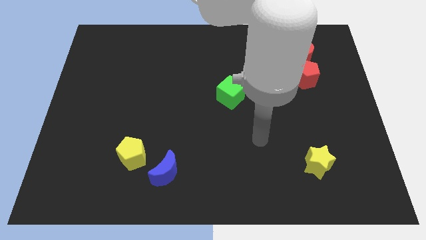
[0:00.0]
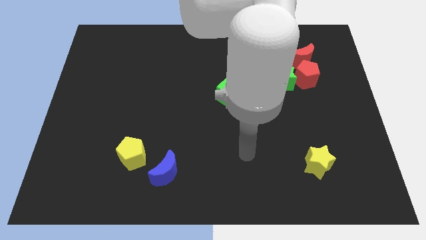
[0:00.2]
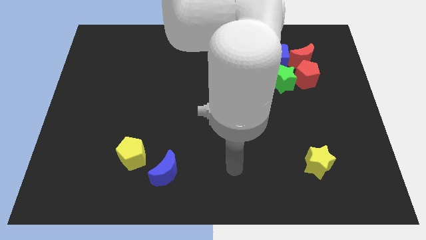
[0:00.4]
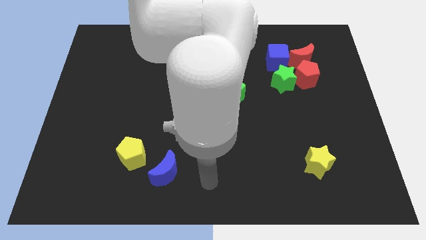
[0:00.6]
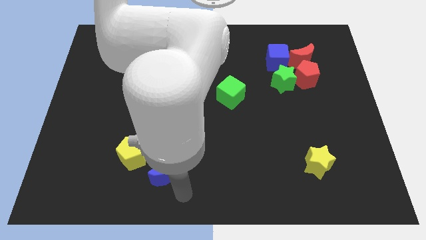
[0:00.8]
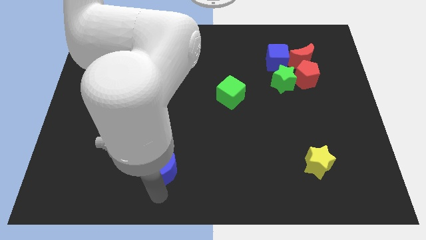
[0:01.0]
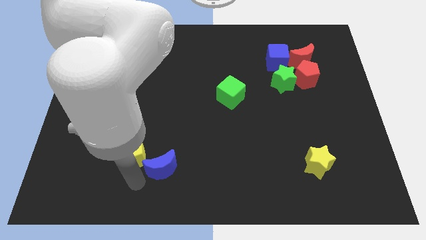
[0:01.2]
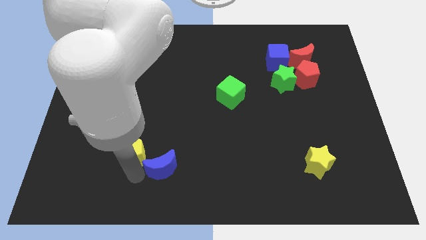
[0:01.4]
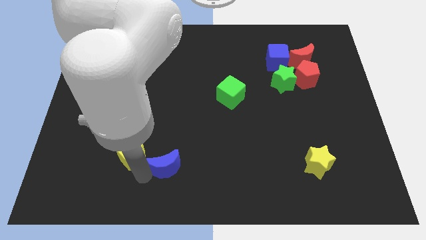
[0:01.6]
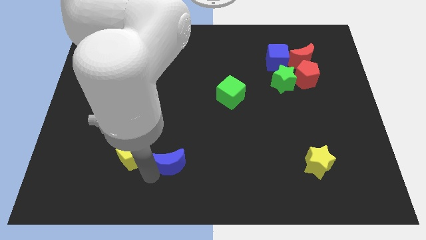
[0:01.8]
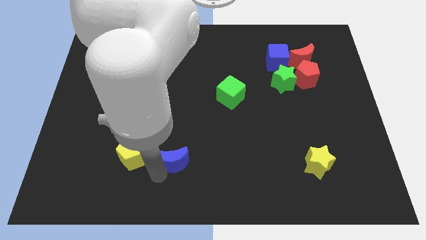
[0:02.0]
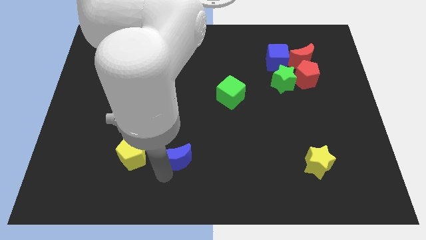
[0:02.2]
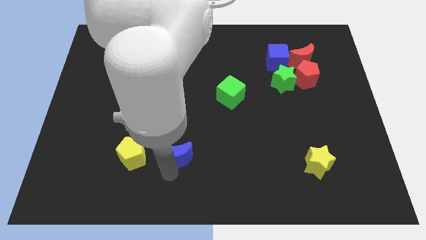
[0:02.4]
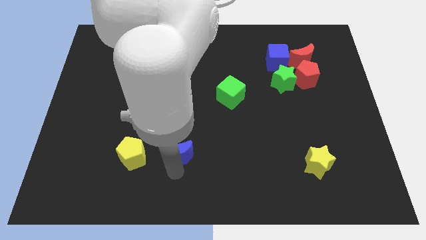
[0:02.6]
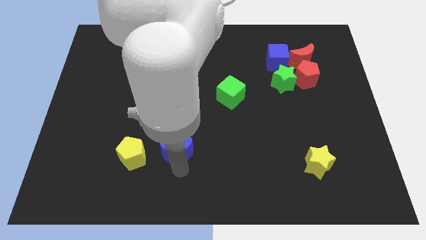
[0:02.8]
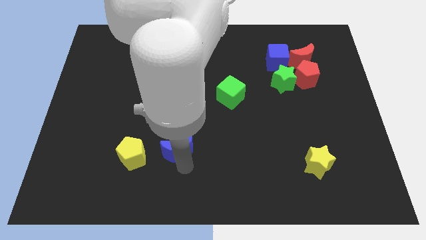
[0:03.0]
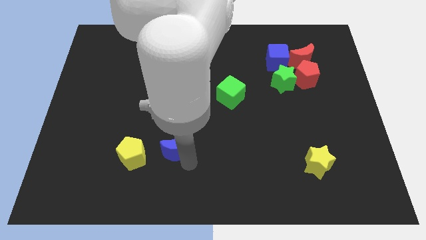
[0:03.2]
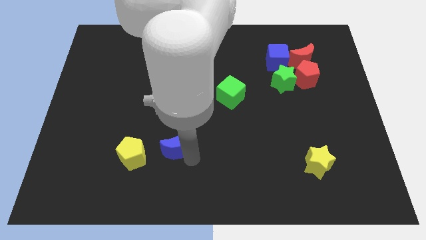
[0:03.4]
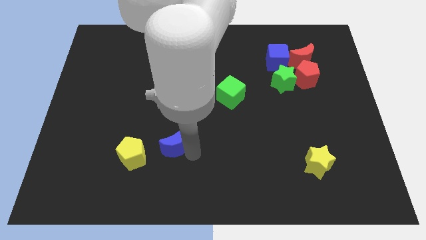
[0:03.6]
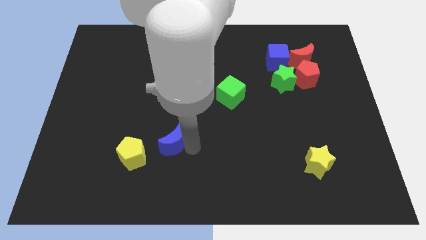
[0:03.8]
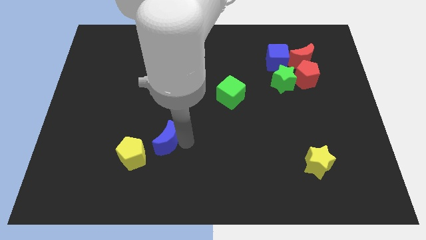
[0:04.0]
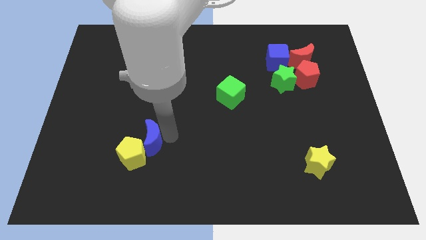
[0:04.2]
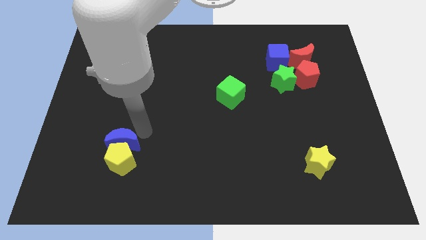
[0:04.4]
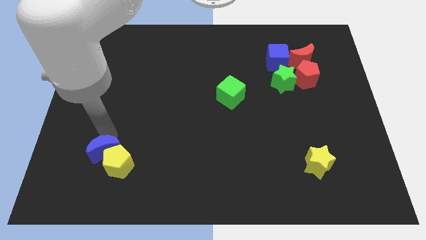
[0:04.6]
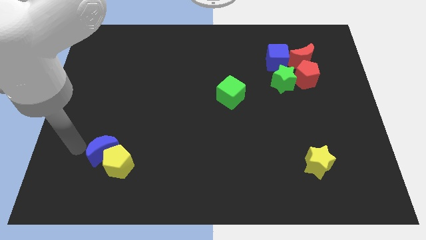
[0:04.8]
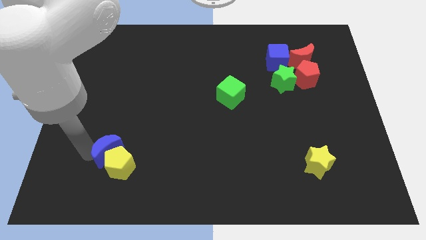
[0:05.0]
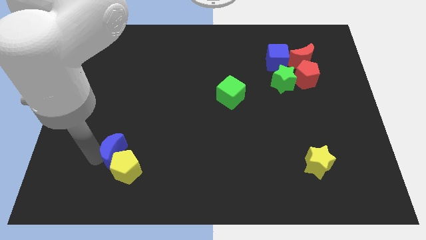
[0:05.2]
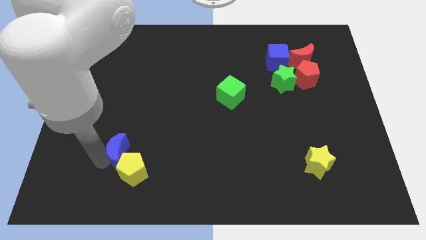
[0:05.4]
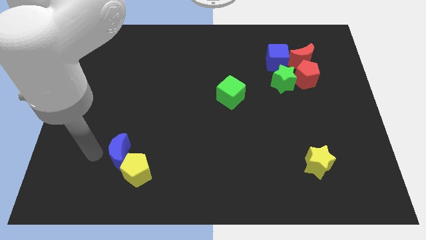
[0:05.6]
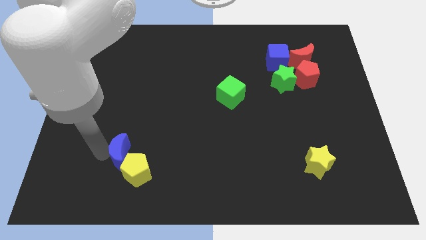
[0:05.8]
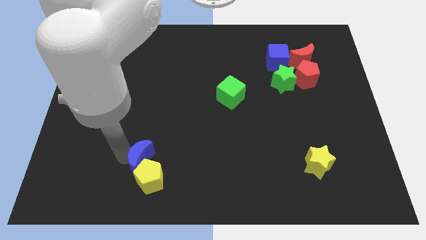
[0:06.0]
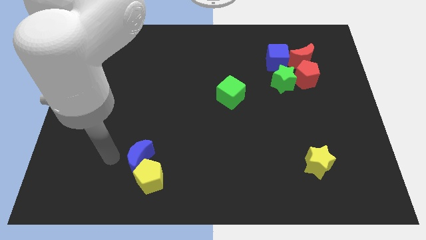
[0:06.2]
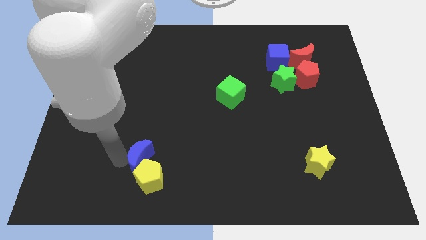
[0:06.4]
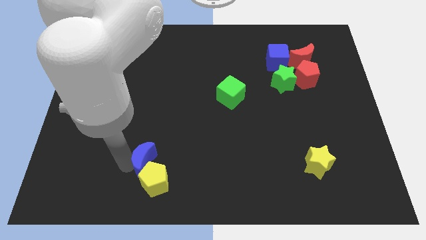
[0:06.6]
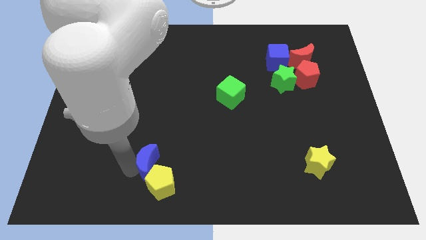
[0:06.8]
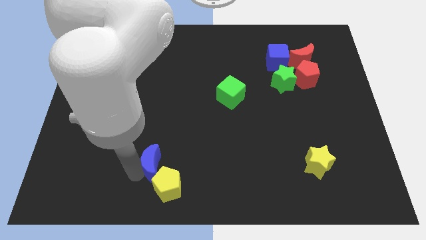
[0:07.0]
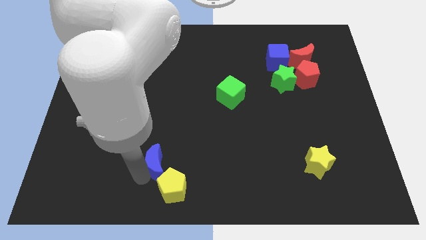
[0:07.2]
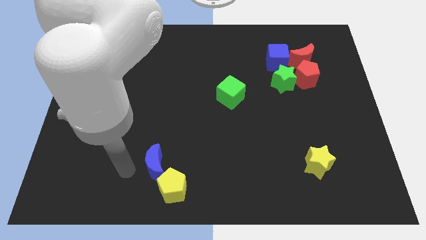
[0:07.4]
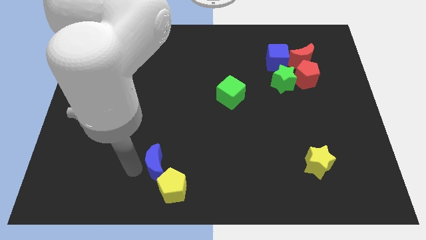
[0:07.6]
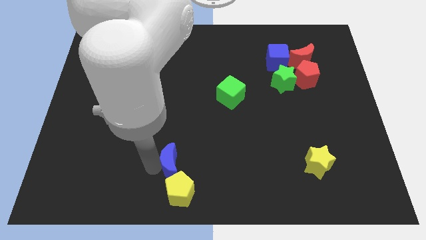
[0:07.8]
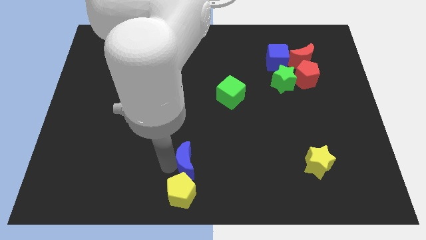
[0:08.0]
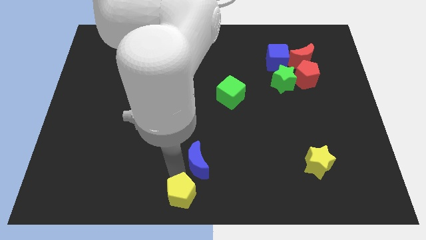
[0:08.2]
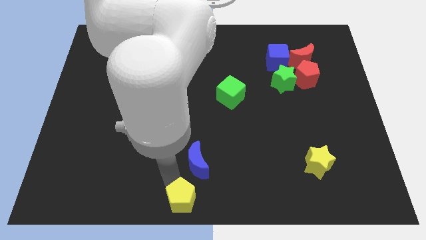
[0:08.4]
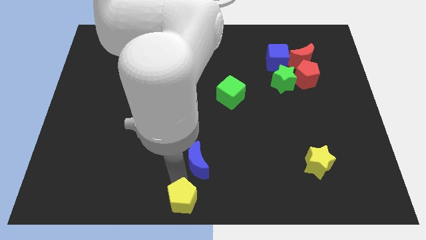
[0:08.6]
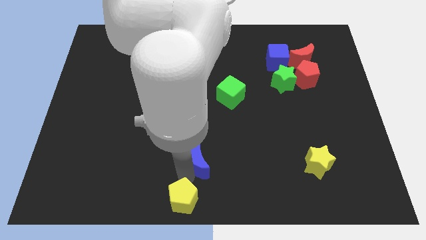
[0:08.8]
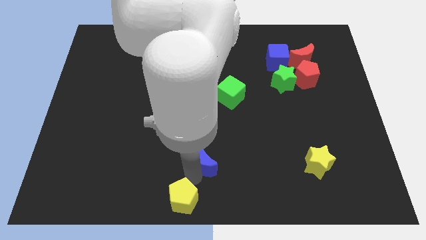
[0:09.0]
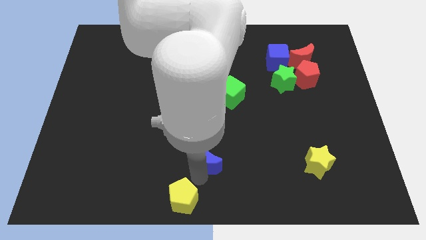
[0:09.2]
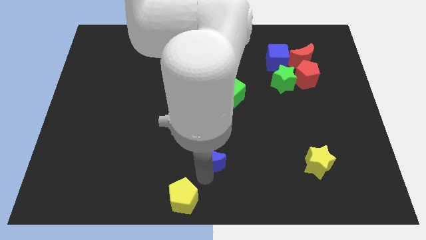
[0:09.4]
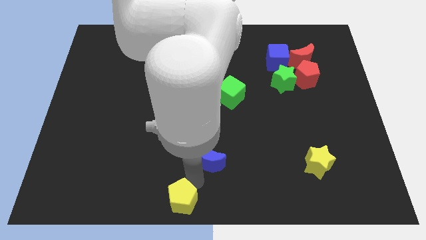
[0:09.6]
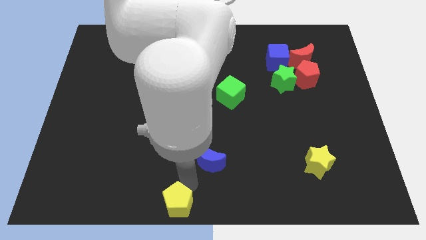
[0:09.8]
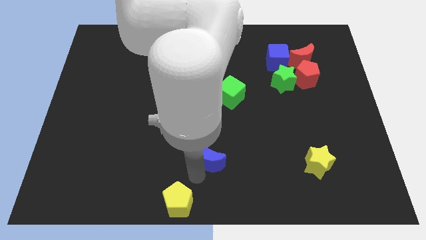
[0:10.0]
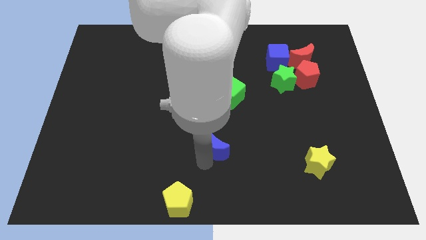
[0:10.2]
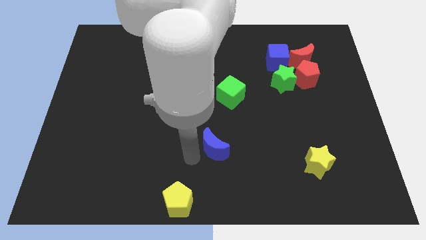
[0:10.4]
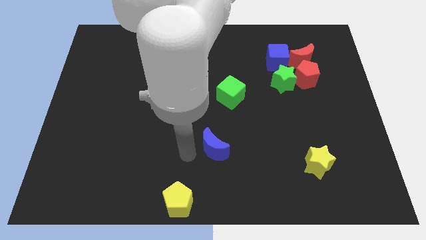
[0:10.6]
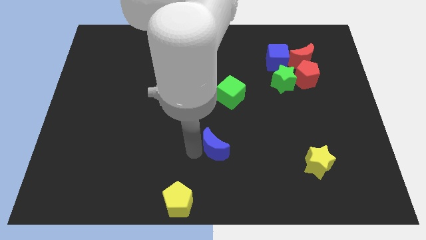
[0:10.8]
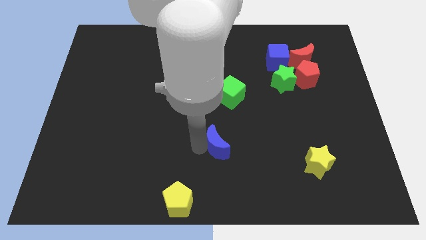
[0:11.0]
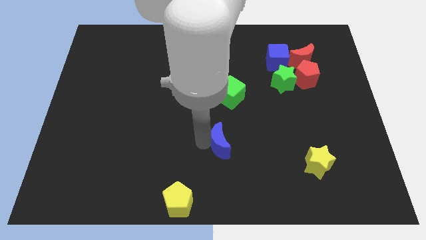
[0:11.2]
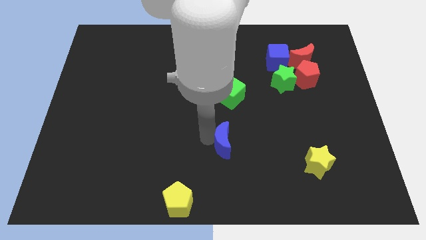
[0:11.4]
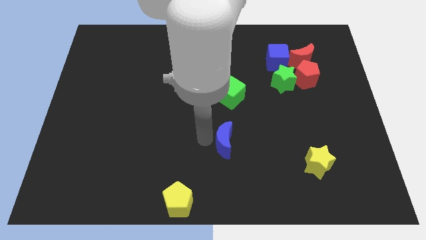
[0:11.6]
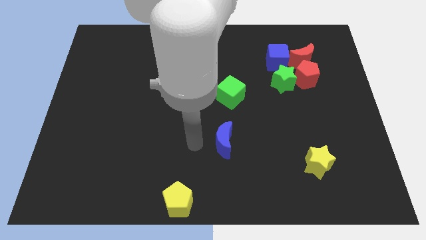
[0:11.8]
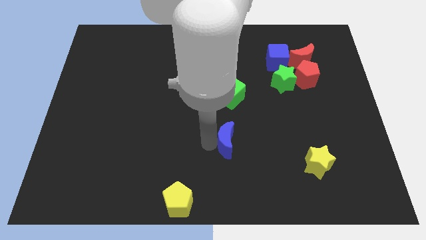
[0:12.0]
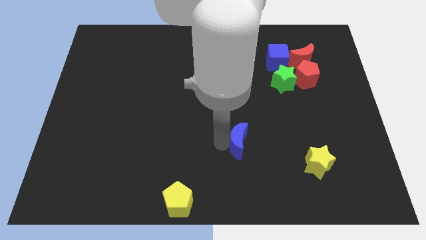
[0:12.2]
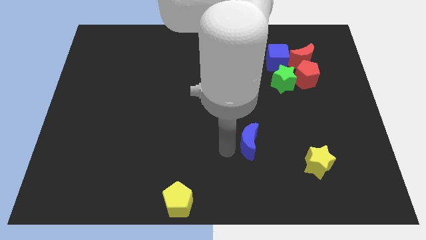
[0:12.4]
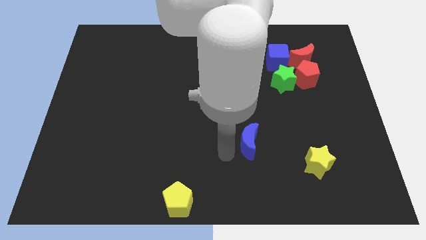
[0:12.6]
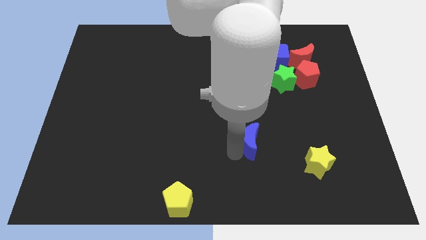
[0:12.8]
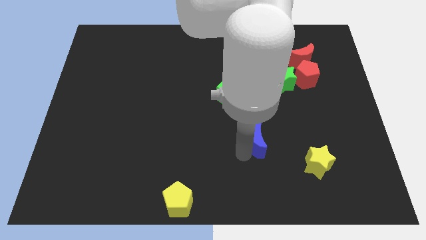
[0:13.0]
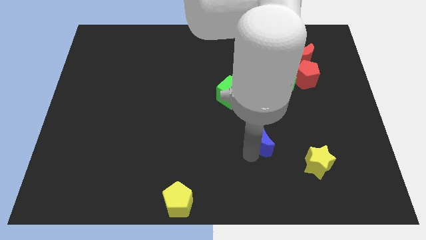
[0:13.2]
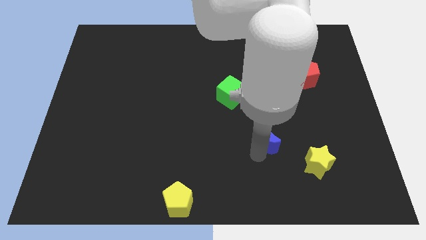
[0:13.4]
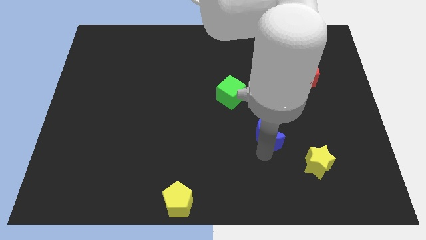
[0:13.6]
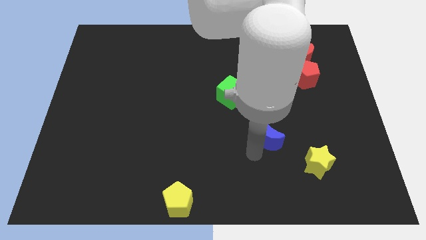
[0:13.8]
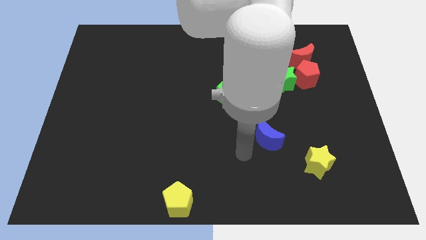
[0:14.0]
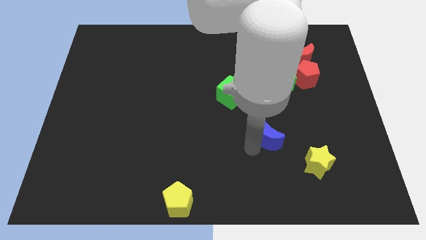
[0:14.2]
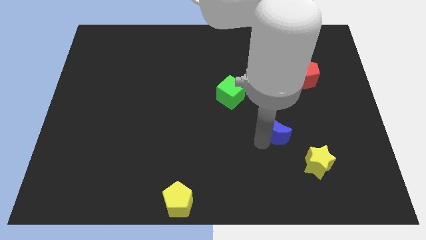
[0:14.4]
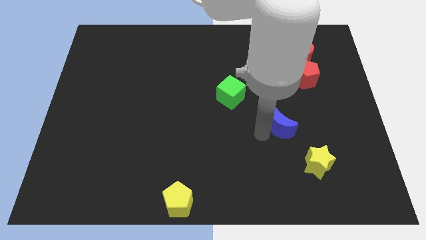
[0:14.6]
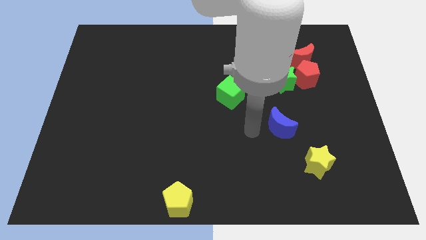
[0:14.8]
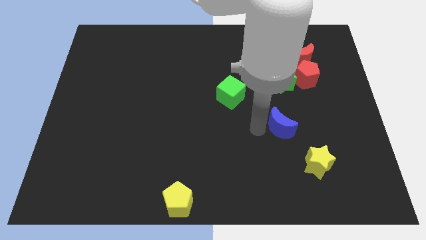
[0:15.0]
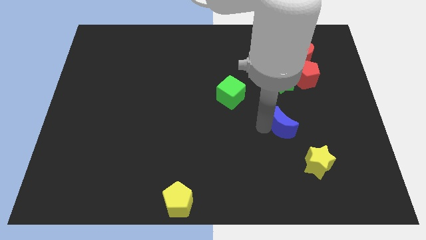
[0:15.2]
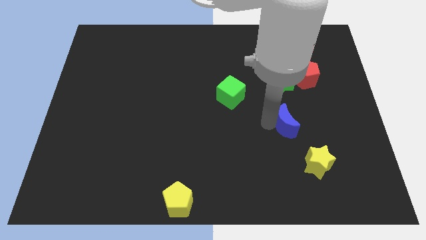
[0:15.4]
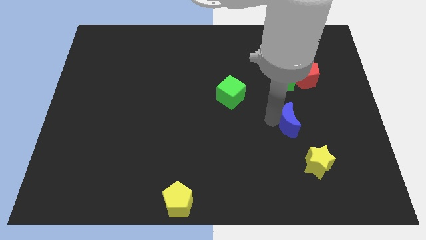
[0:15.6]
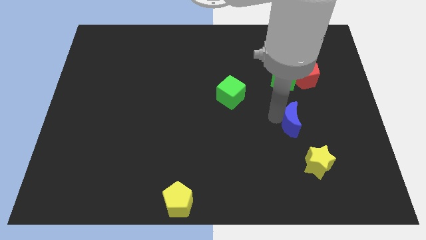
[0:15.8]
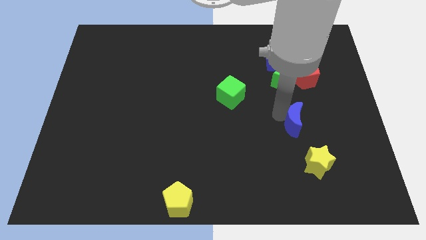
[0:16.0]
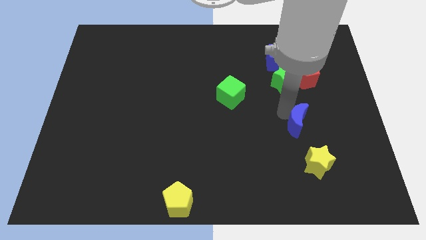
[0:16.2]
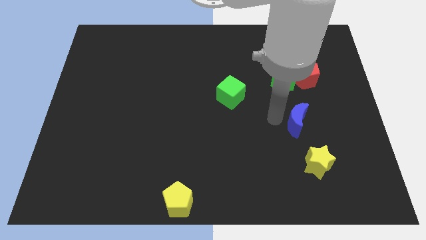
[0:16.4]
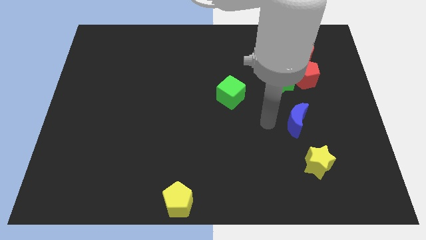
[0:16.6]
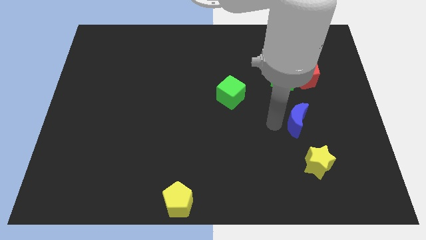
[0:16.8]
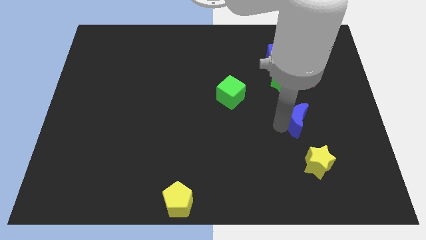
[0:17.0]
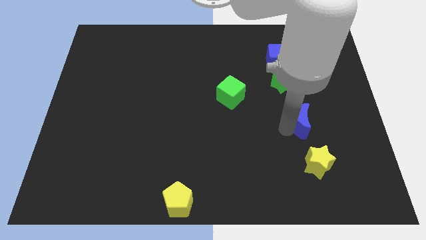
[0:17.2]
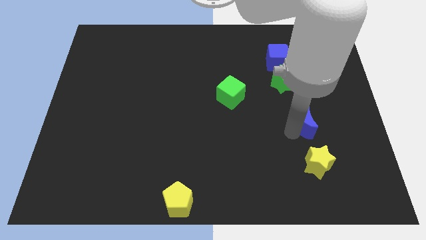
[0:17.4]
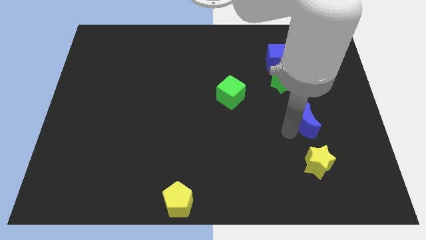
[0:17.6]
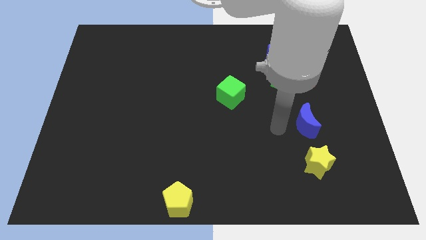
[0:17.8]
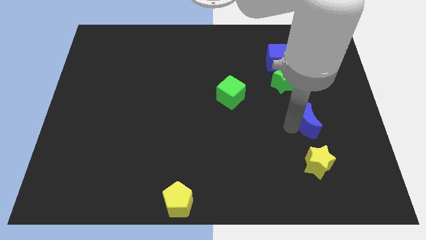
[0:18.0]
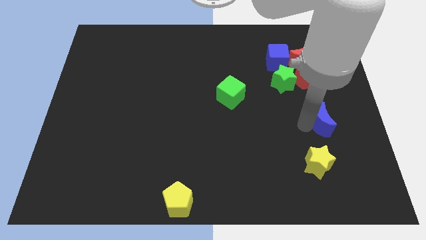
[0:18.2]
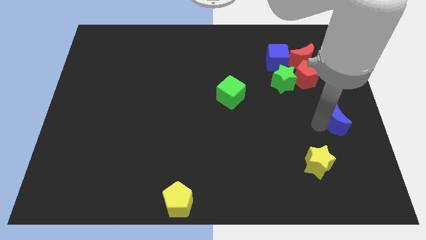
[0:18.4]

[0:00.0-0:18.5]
push the blue moon to the right side of the board
